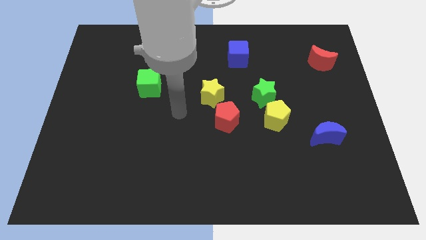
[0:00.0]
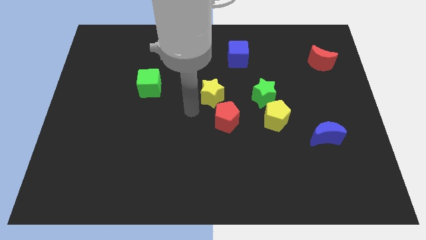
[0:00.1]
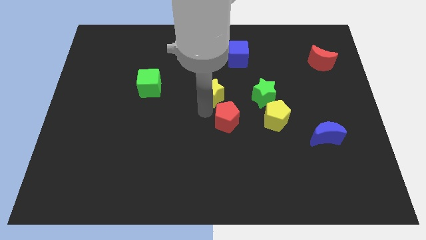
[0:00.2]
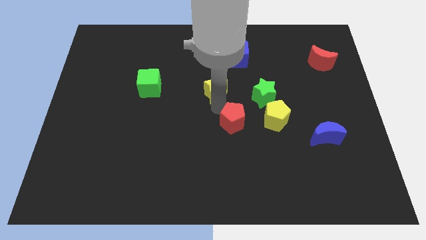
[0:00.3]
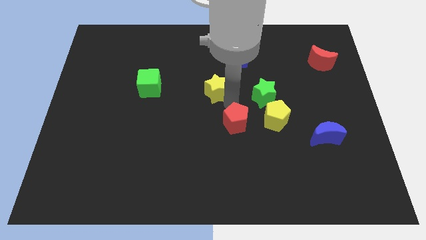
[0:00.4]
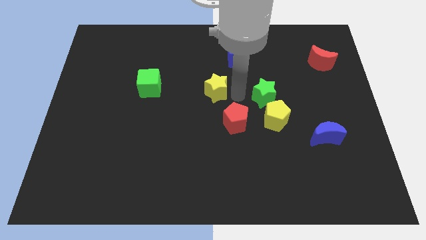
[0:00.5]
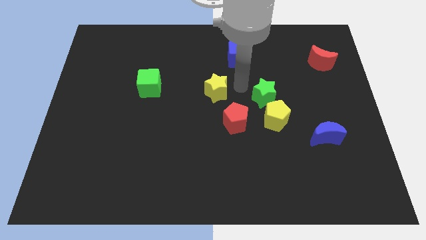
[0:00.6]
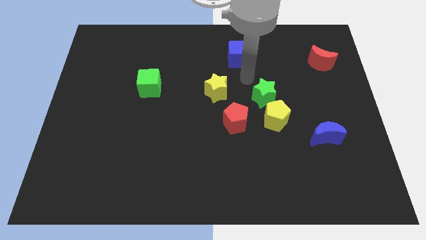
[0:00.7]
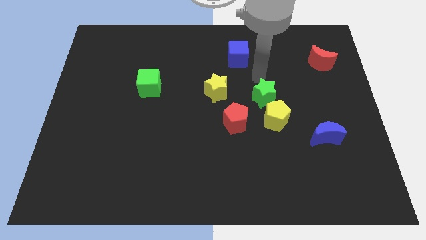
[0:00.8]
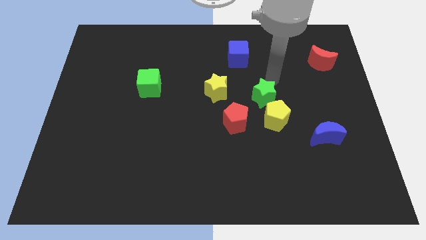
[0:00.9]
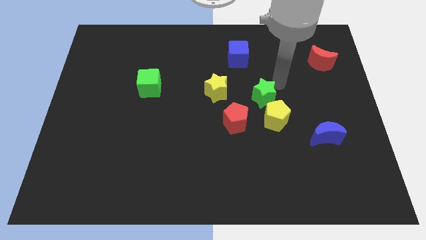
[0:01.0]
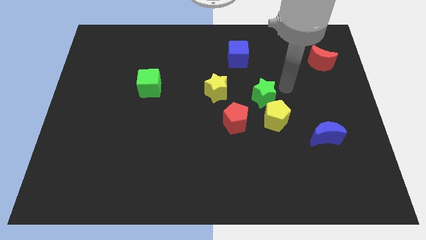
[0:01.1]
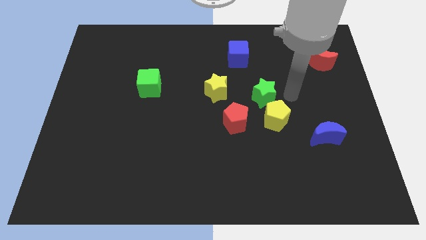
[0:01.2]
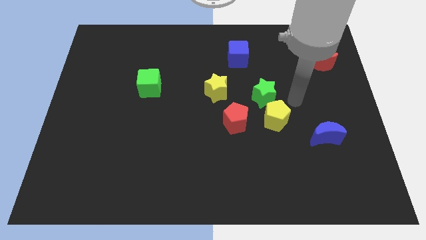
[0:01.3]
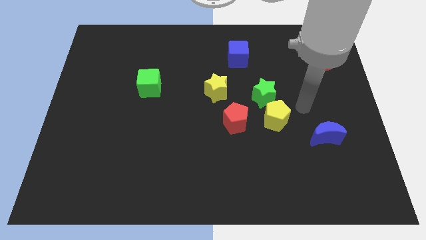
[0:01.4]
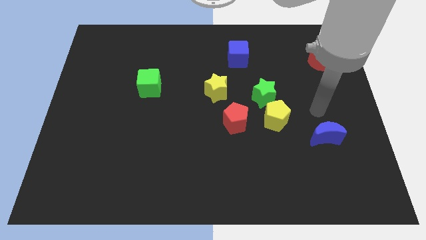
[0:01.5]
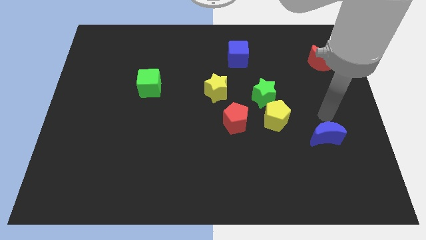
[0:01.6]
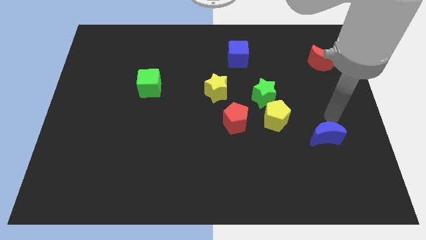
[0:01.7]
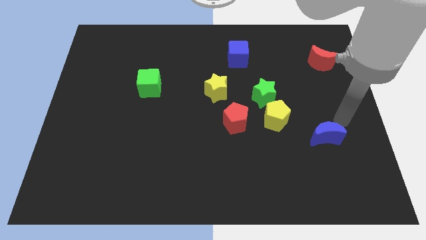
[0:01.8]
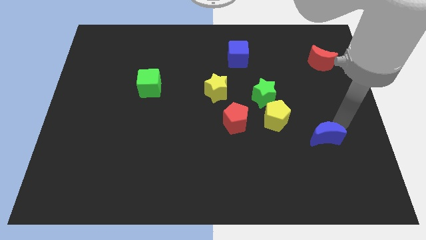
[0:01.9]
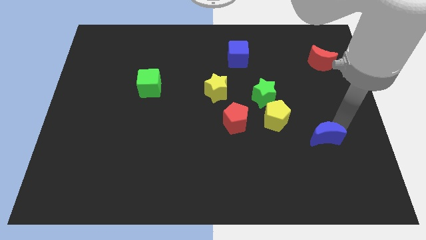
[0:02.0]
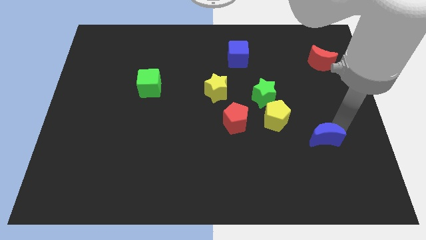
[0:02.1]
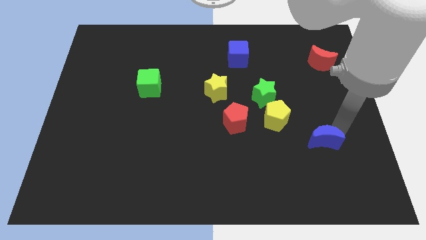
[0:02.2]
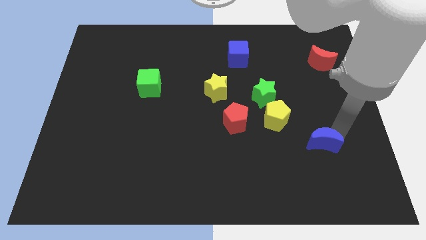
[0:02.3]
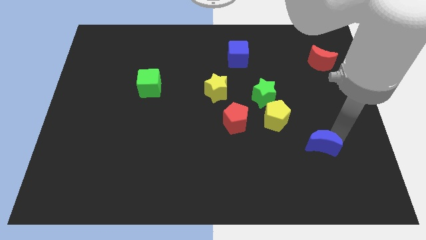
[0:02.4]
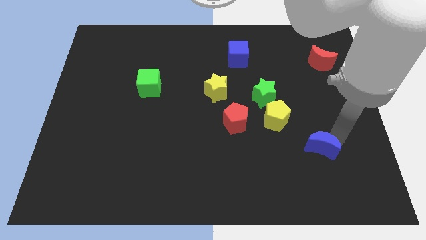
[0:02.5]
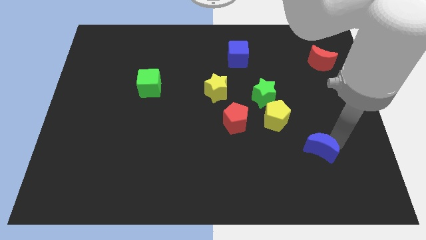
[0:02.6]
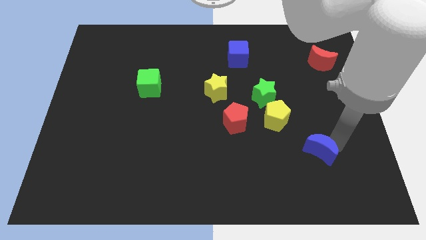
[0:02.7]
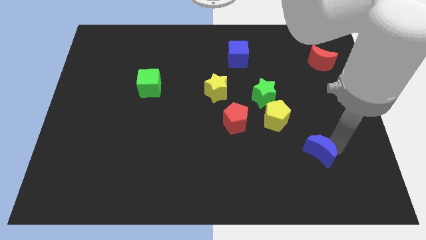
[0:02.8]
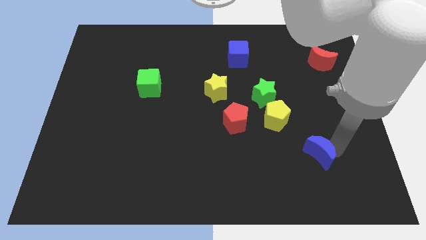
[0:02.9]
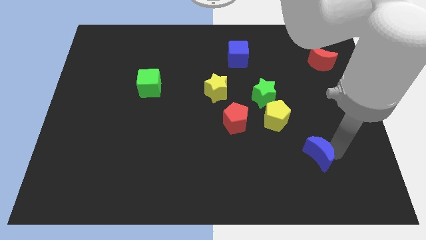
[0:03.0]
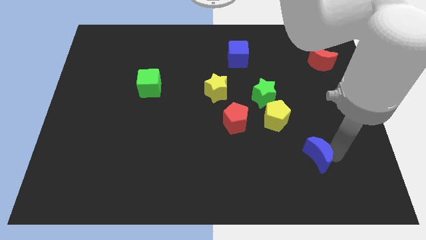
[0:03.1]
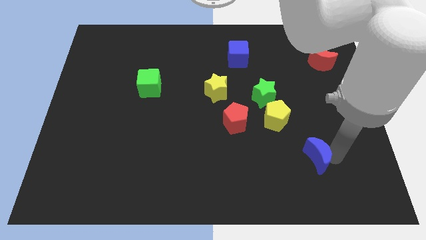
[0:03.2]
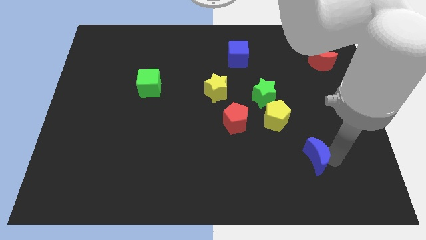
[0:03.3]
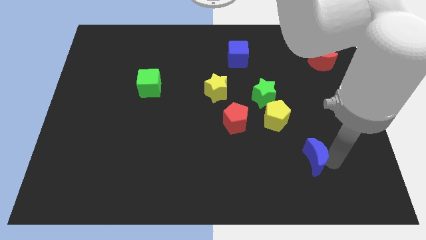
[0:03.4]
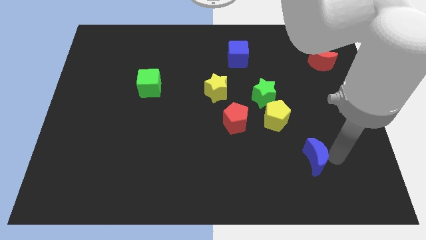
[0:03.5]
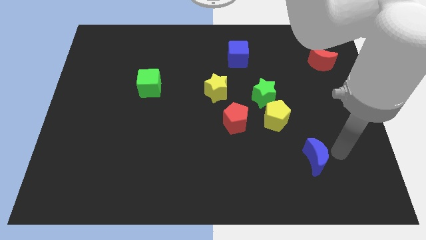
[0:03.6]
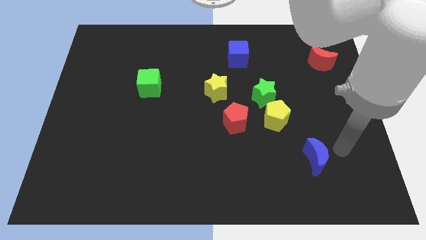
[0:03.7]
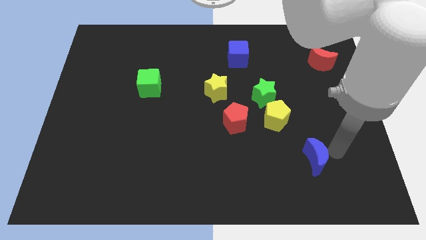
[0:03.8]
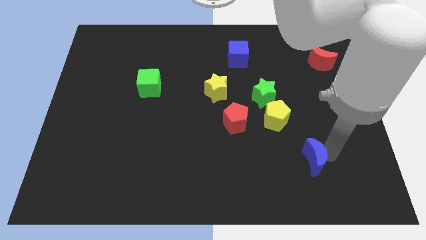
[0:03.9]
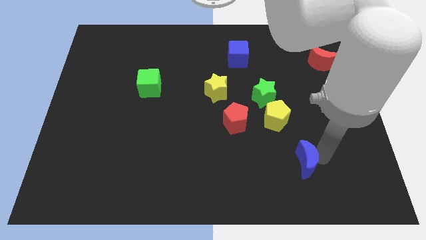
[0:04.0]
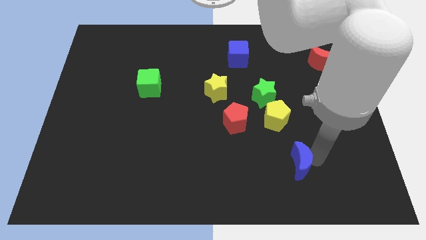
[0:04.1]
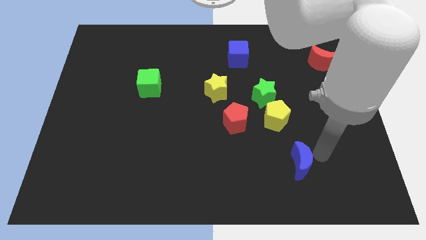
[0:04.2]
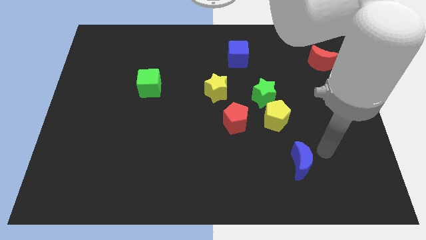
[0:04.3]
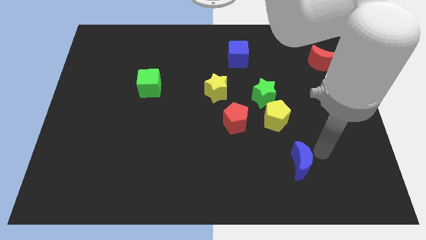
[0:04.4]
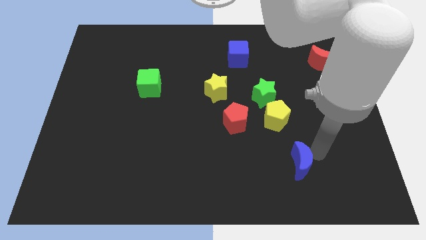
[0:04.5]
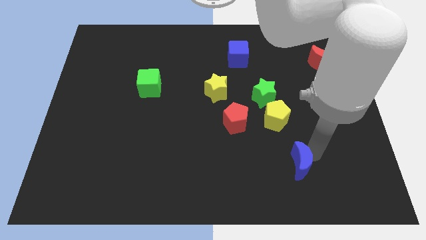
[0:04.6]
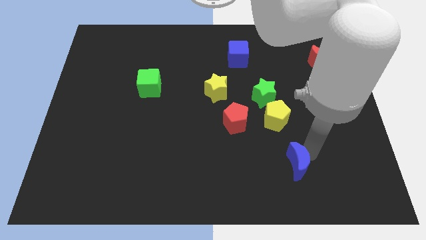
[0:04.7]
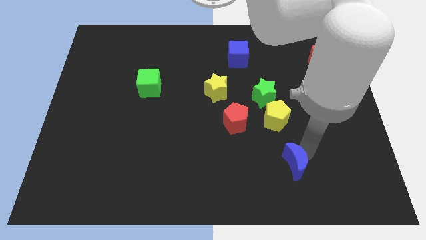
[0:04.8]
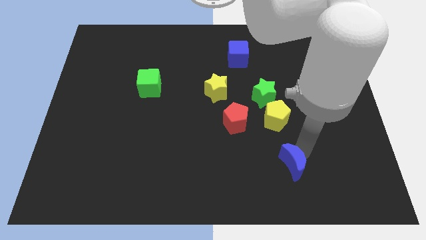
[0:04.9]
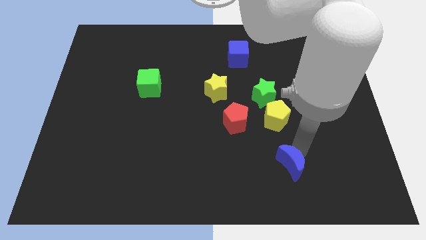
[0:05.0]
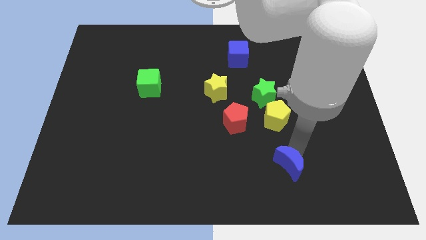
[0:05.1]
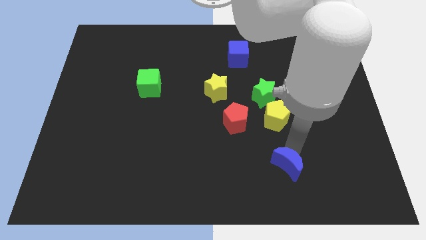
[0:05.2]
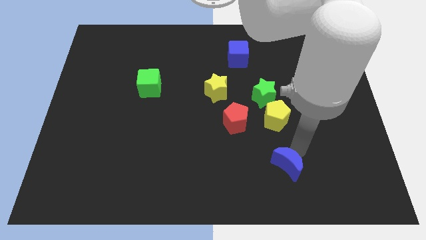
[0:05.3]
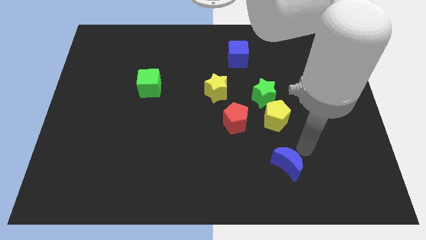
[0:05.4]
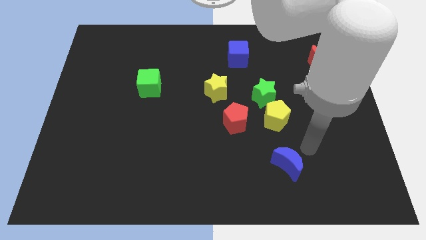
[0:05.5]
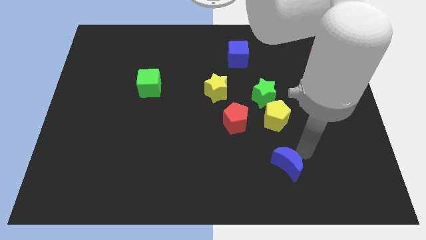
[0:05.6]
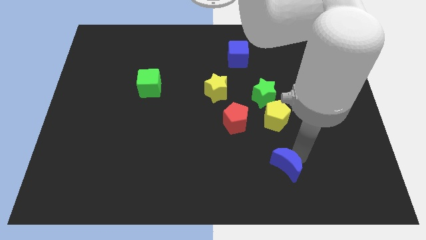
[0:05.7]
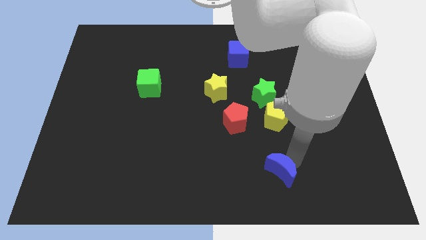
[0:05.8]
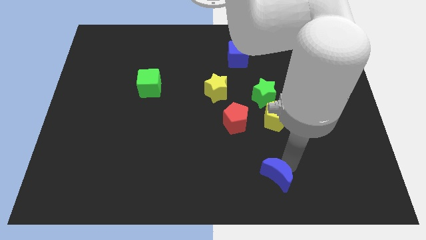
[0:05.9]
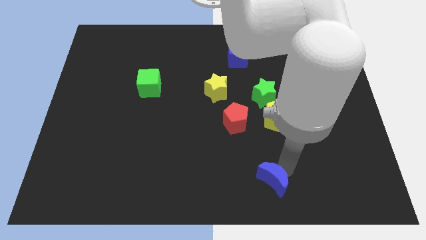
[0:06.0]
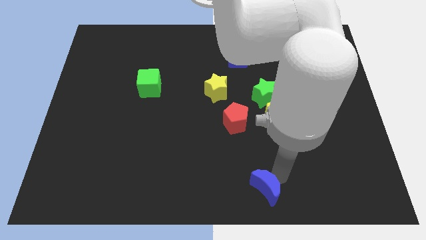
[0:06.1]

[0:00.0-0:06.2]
push the blue moon to the bottom side

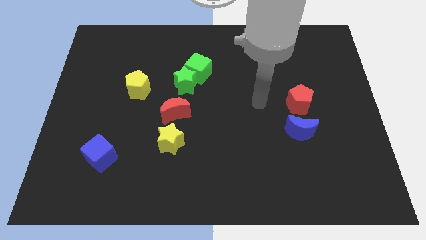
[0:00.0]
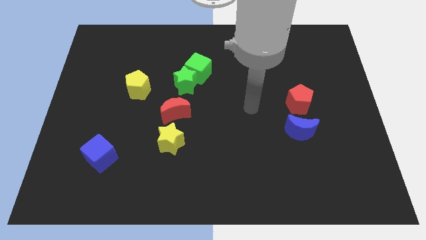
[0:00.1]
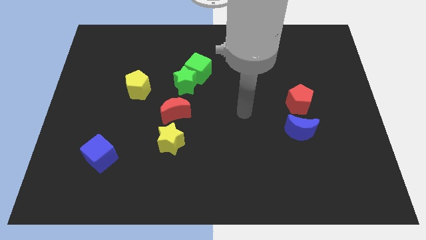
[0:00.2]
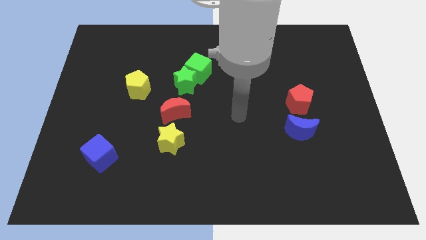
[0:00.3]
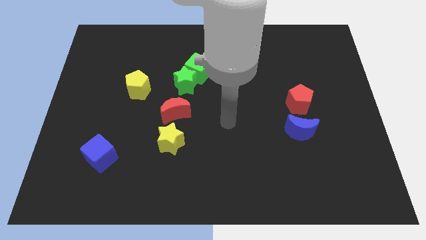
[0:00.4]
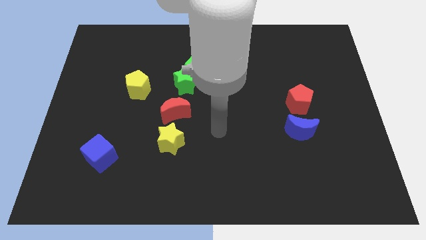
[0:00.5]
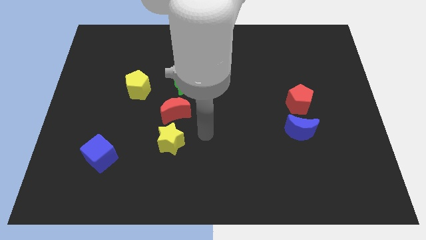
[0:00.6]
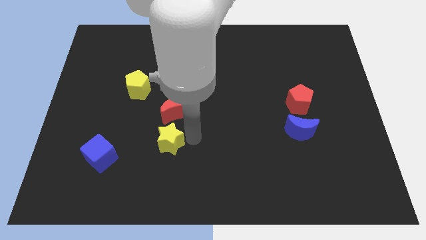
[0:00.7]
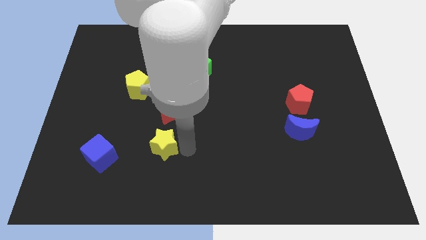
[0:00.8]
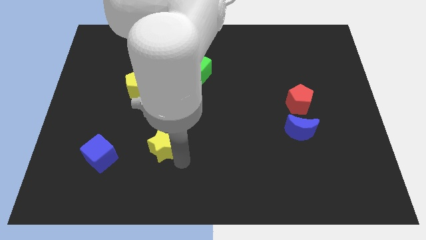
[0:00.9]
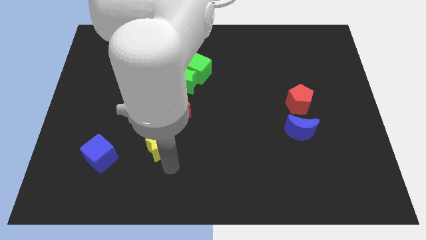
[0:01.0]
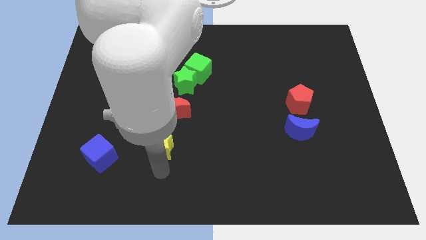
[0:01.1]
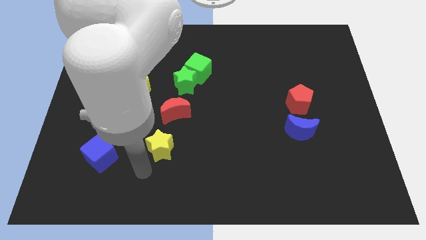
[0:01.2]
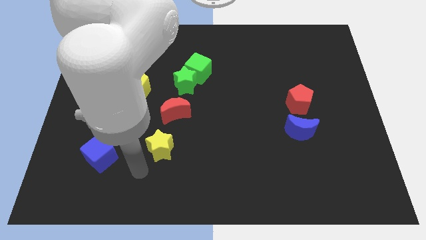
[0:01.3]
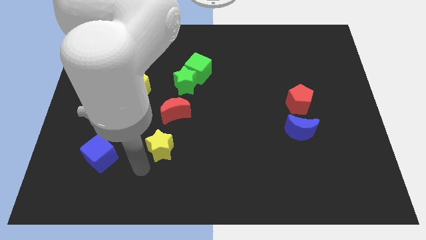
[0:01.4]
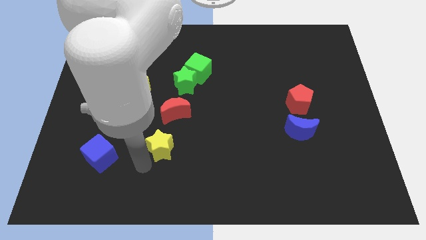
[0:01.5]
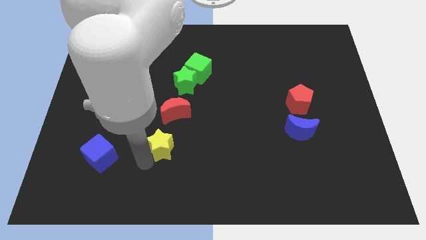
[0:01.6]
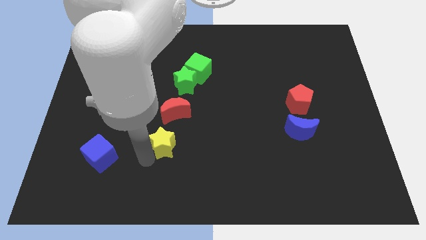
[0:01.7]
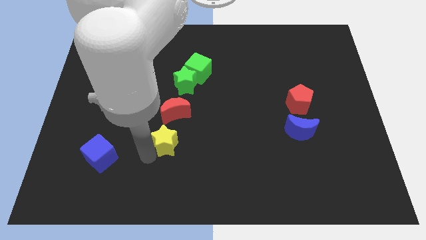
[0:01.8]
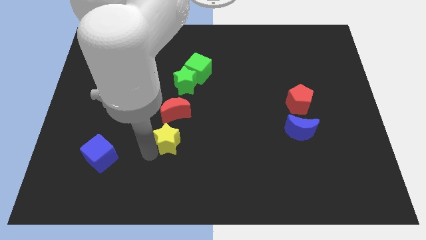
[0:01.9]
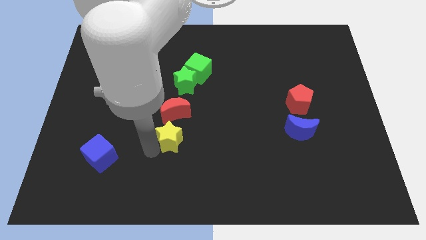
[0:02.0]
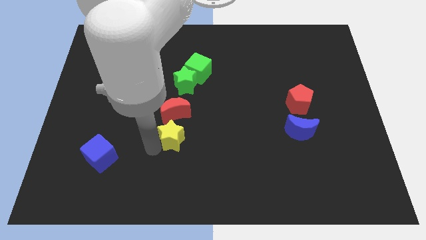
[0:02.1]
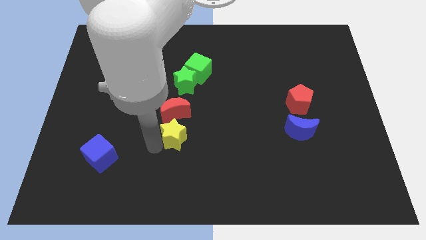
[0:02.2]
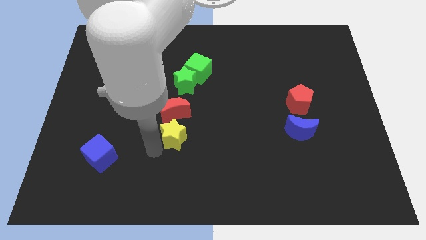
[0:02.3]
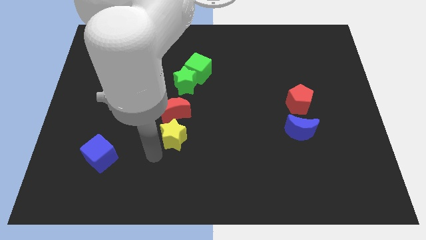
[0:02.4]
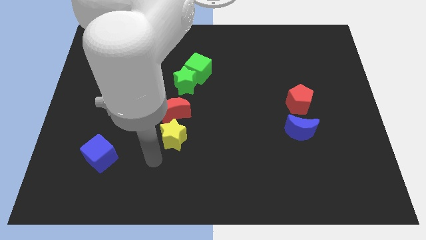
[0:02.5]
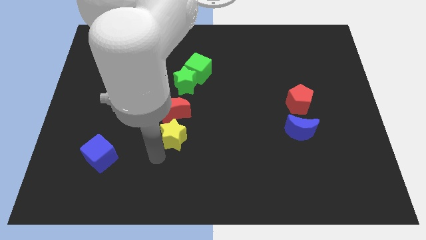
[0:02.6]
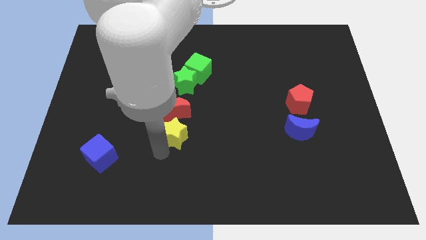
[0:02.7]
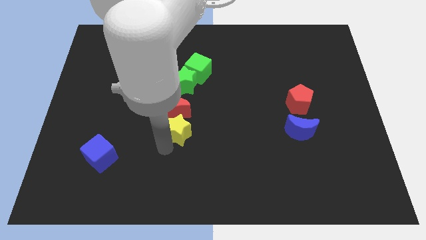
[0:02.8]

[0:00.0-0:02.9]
slide the yellow star to the center
